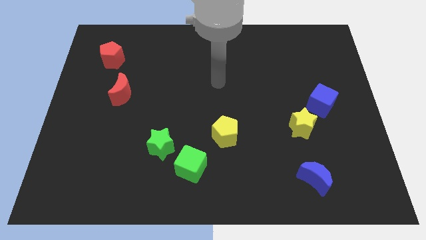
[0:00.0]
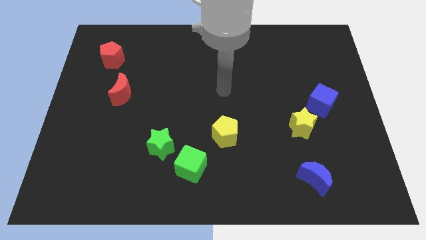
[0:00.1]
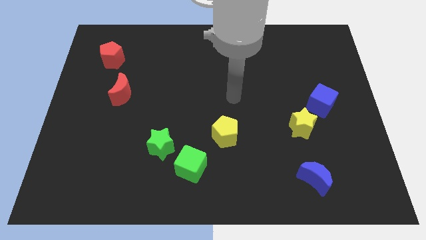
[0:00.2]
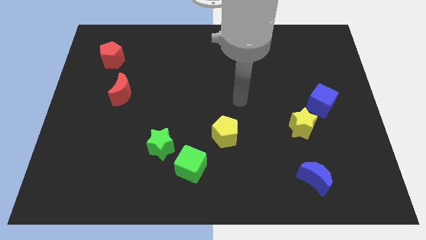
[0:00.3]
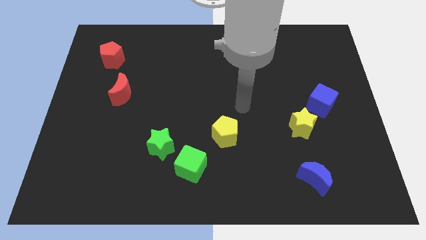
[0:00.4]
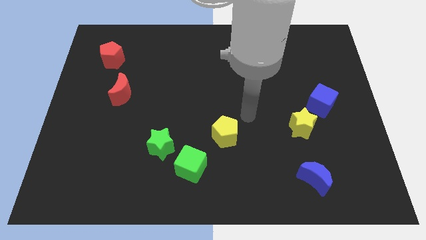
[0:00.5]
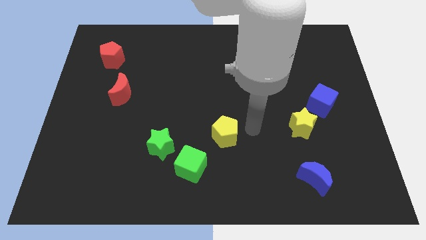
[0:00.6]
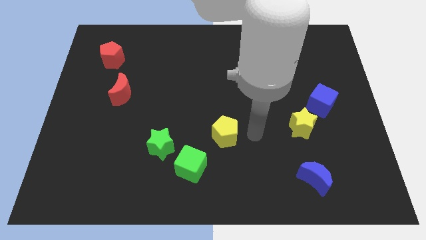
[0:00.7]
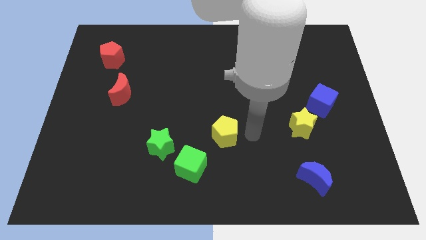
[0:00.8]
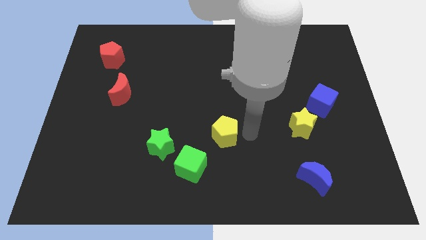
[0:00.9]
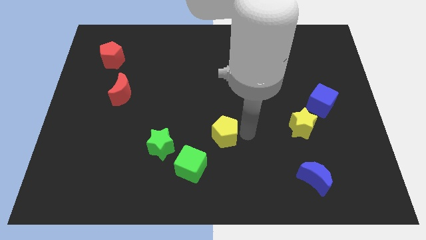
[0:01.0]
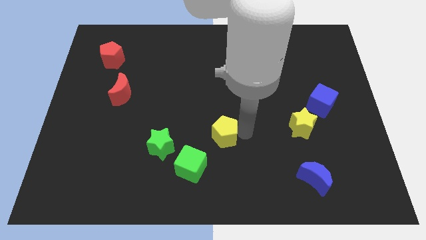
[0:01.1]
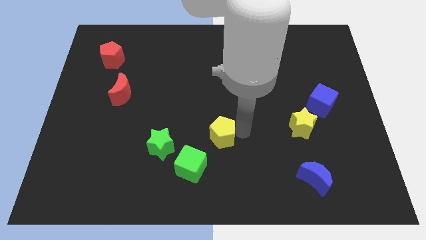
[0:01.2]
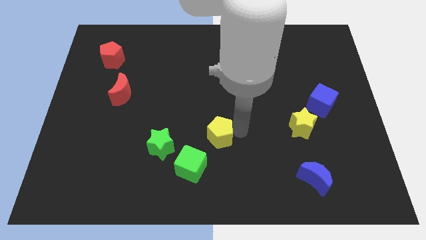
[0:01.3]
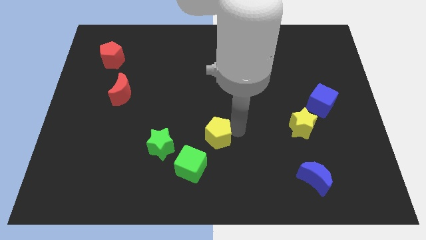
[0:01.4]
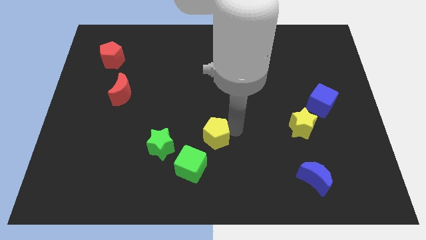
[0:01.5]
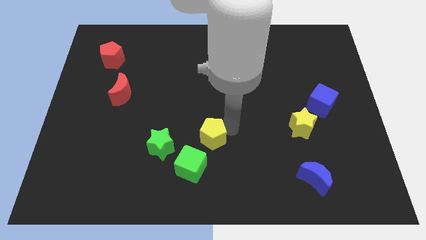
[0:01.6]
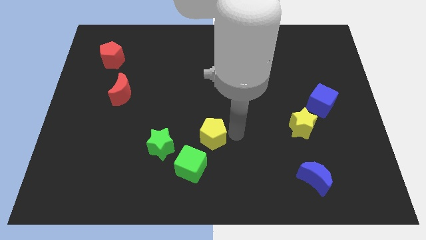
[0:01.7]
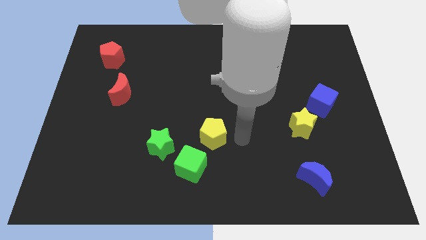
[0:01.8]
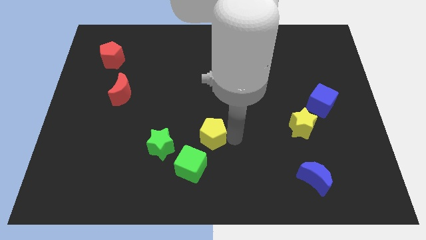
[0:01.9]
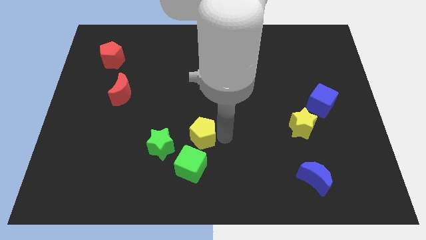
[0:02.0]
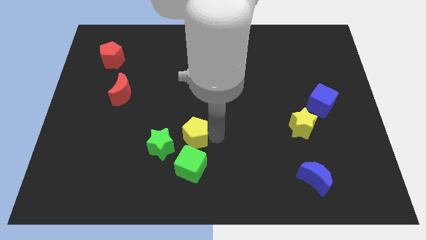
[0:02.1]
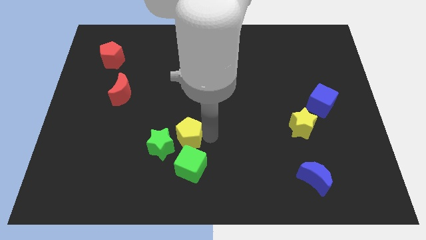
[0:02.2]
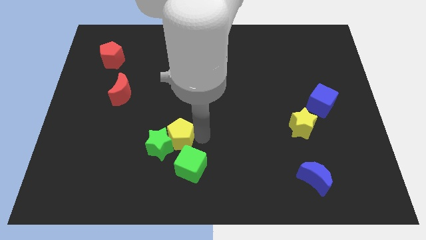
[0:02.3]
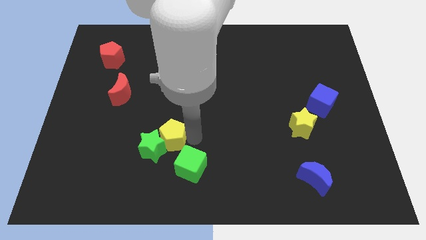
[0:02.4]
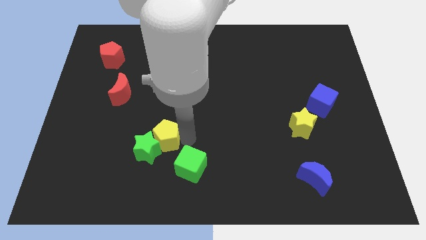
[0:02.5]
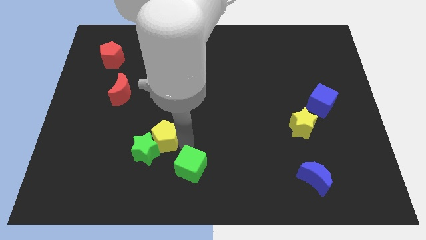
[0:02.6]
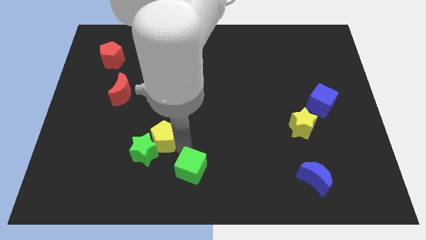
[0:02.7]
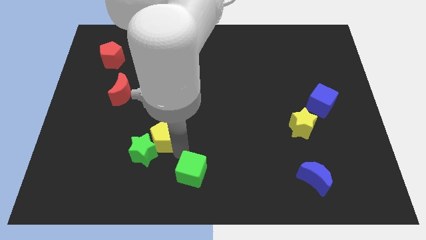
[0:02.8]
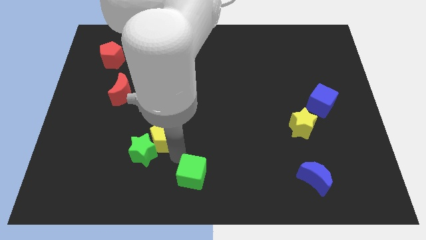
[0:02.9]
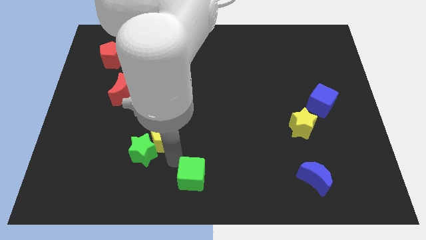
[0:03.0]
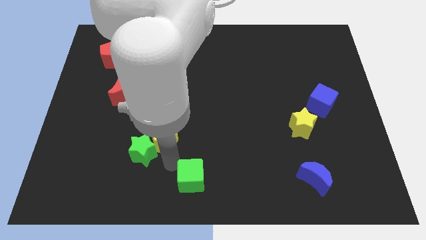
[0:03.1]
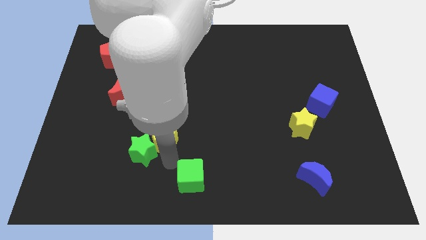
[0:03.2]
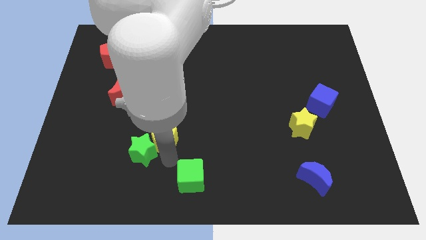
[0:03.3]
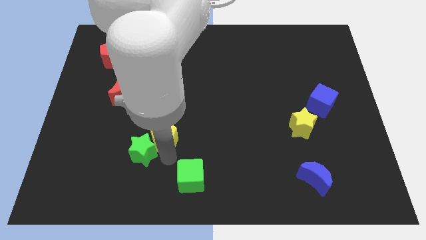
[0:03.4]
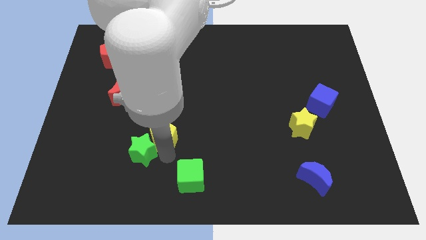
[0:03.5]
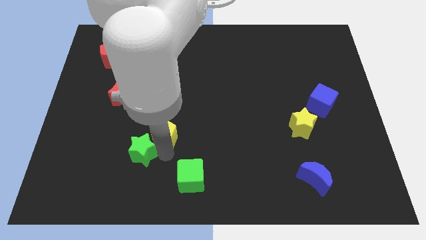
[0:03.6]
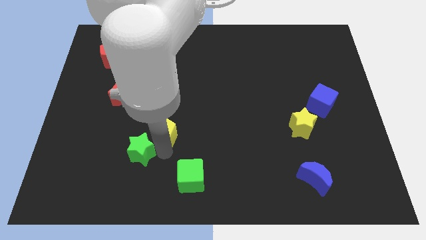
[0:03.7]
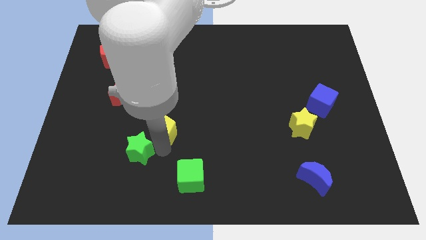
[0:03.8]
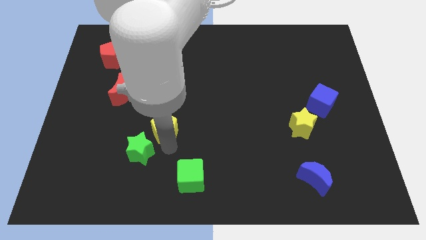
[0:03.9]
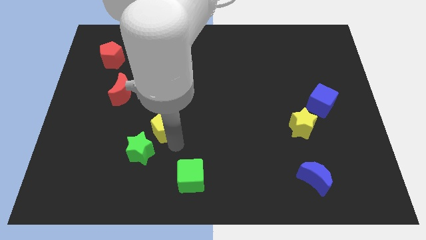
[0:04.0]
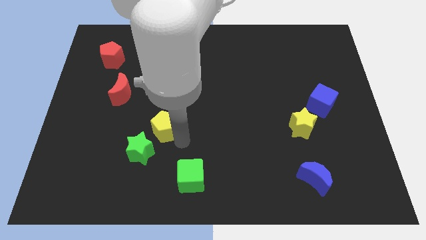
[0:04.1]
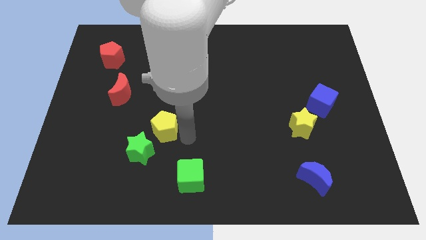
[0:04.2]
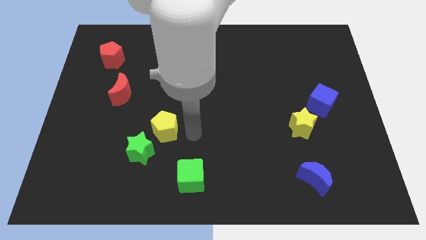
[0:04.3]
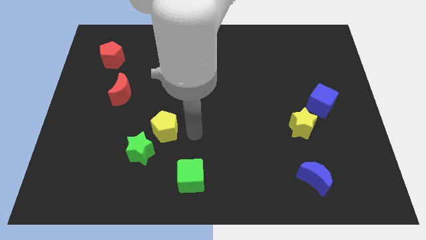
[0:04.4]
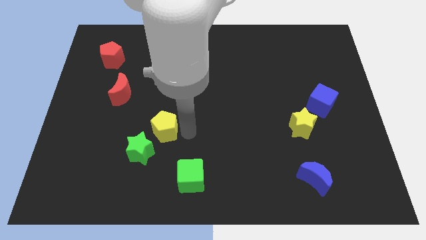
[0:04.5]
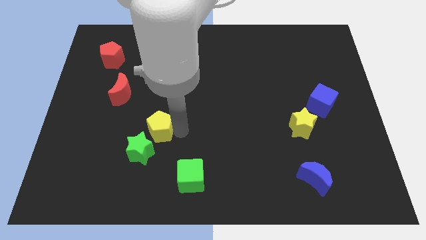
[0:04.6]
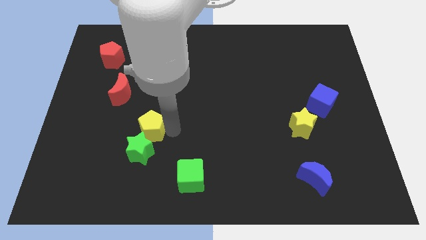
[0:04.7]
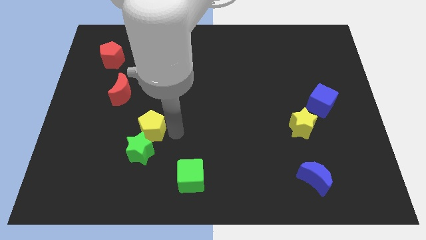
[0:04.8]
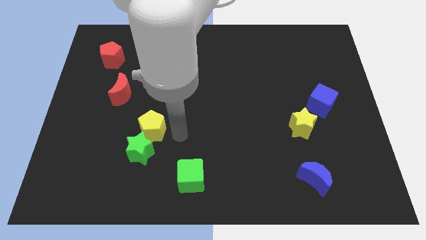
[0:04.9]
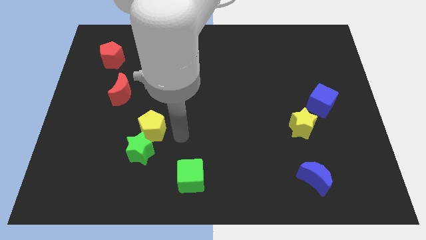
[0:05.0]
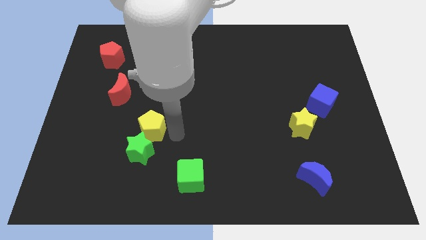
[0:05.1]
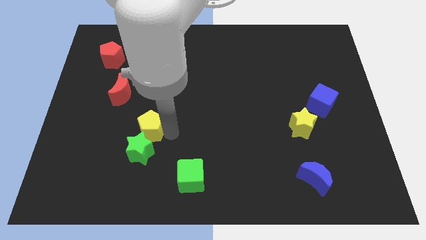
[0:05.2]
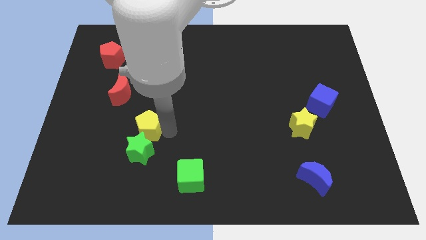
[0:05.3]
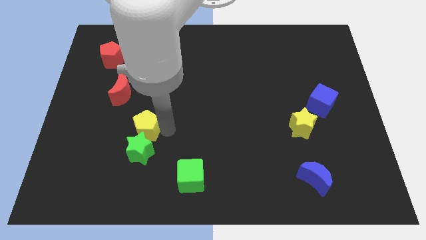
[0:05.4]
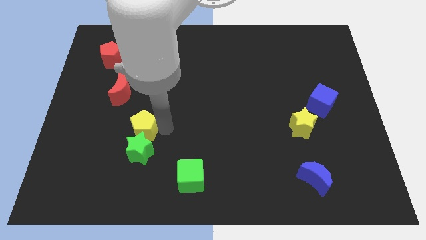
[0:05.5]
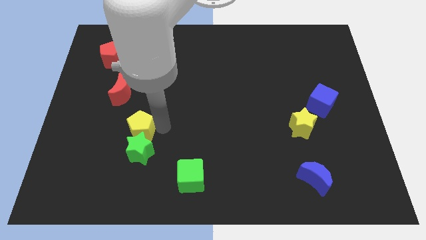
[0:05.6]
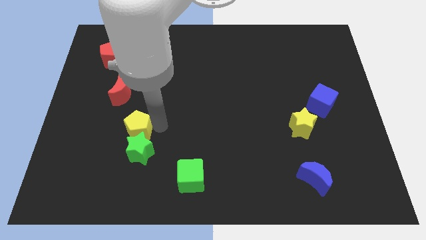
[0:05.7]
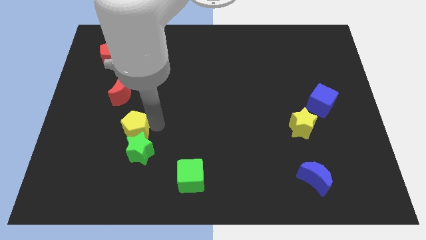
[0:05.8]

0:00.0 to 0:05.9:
put the yellow pentagon below the red moon

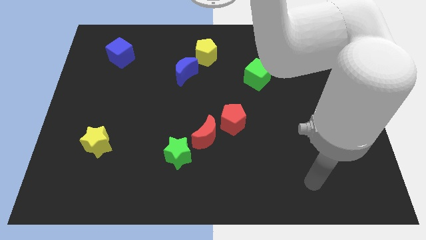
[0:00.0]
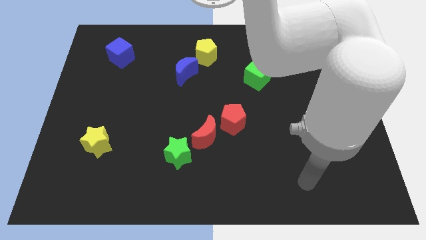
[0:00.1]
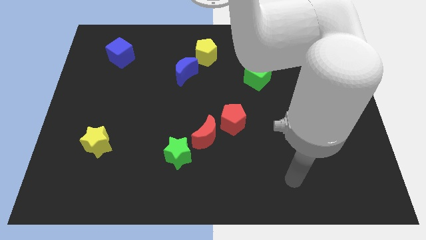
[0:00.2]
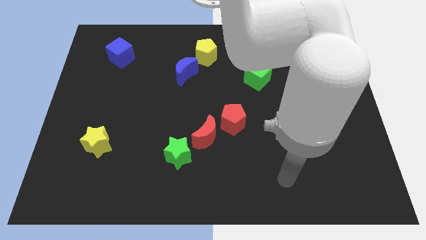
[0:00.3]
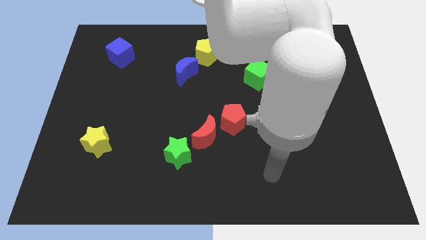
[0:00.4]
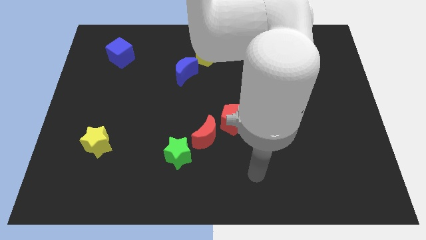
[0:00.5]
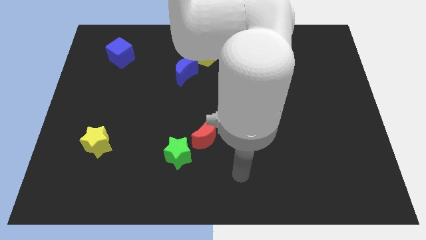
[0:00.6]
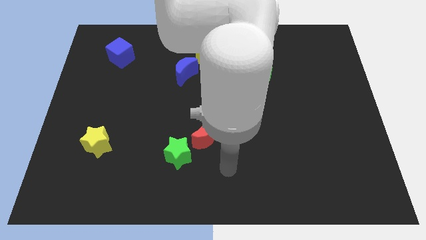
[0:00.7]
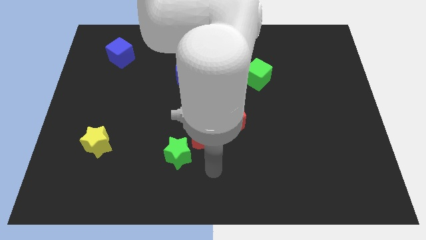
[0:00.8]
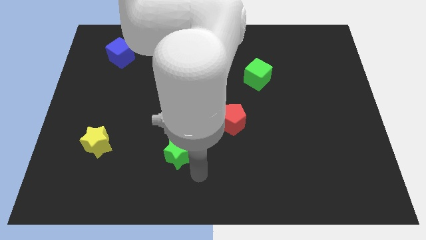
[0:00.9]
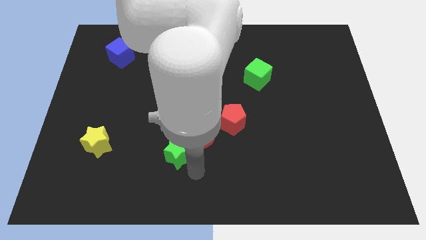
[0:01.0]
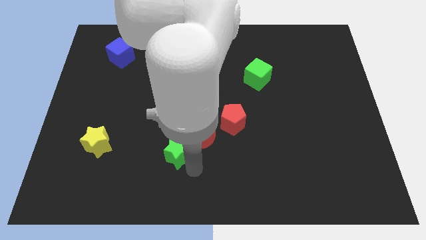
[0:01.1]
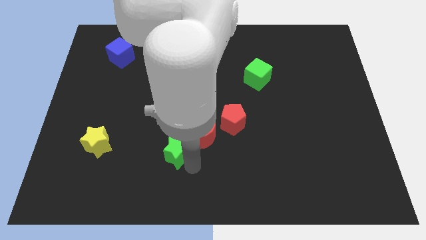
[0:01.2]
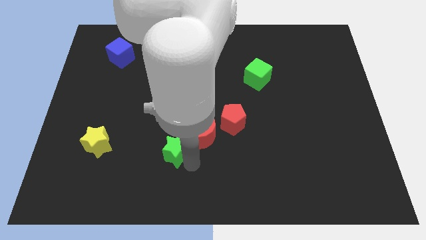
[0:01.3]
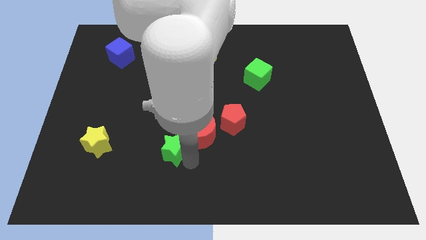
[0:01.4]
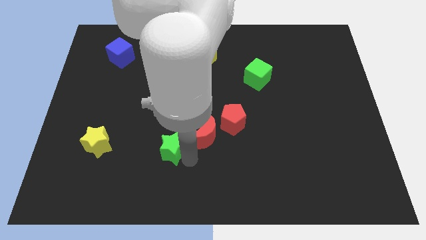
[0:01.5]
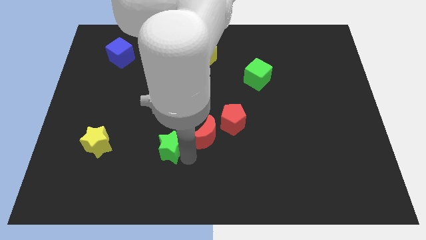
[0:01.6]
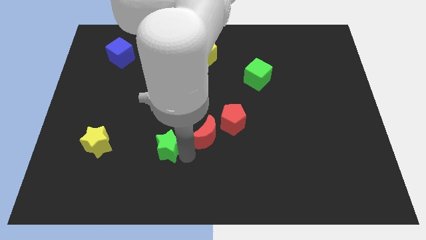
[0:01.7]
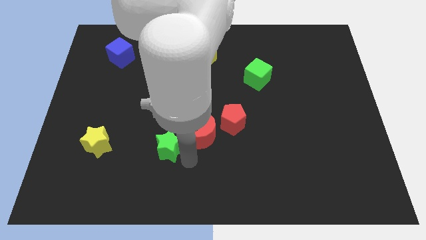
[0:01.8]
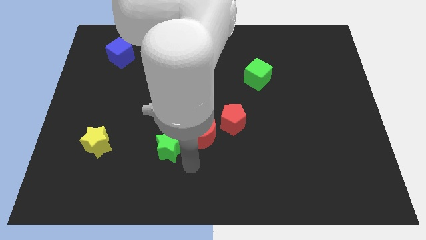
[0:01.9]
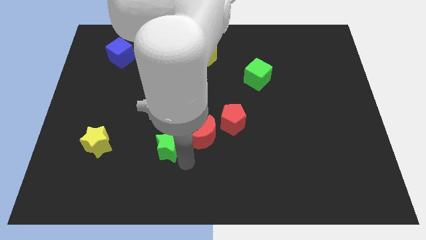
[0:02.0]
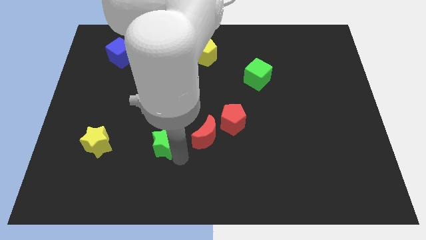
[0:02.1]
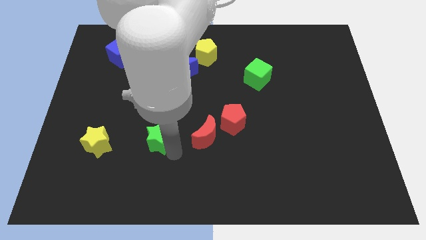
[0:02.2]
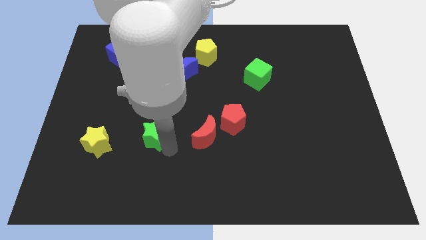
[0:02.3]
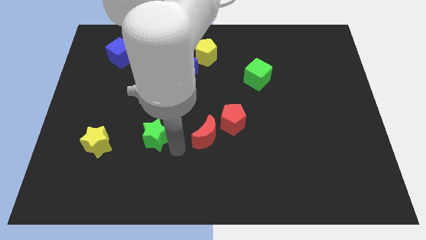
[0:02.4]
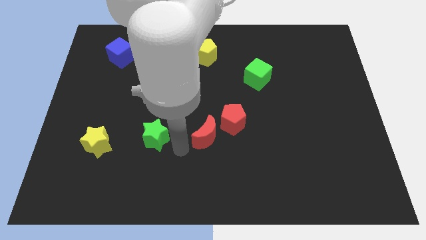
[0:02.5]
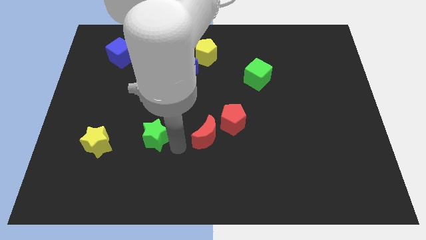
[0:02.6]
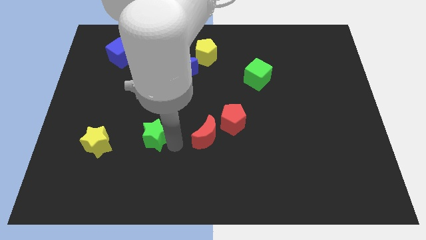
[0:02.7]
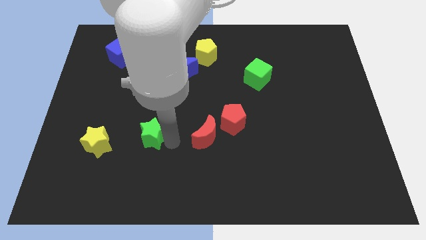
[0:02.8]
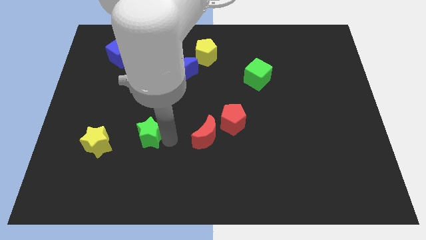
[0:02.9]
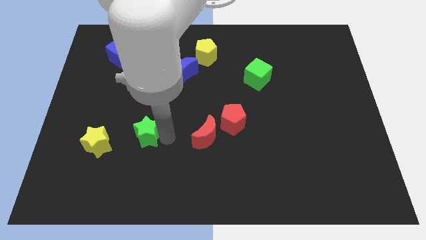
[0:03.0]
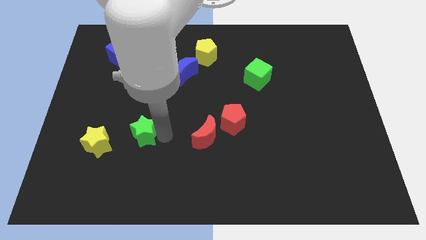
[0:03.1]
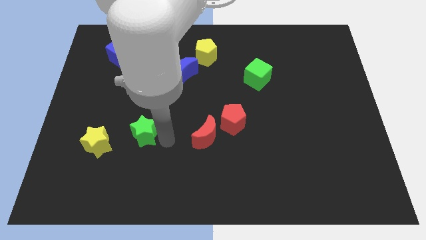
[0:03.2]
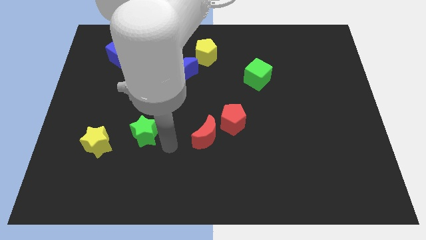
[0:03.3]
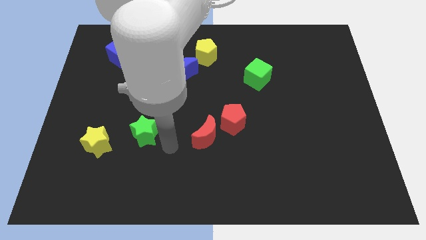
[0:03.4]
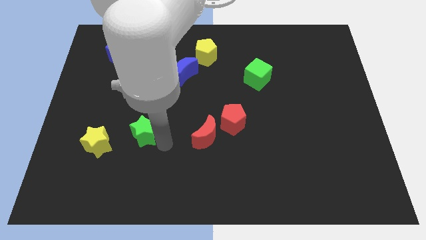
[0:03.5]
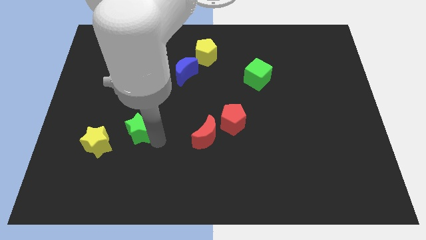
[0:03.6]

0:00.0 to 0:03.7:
move the green star to the top right of the yellow star
